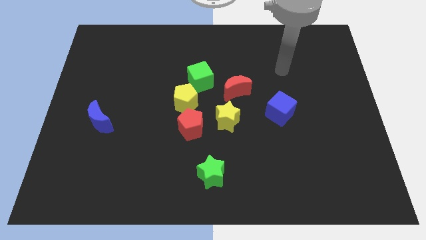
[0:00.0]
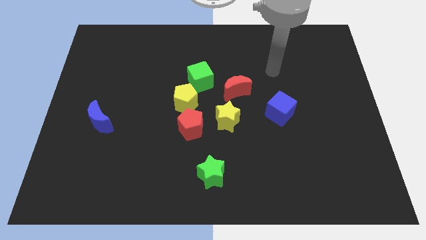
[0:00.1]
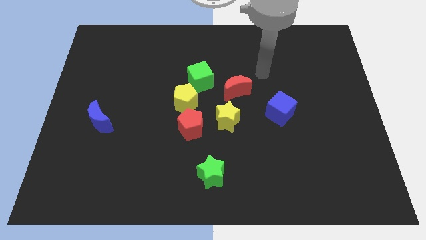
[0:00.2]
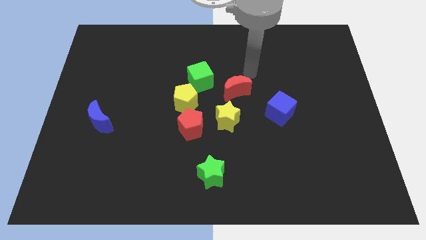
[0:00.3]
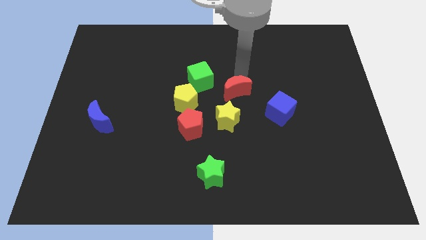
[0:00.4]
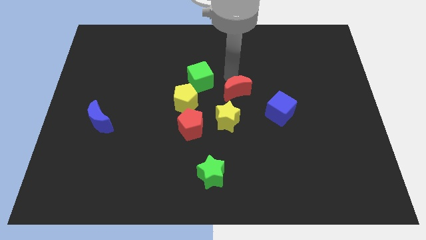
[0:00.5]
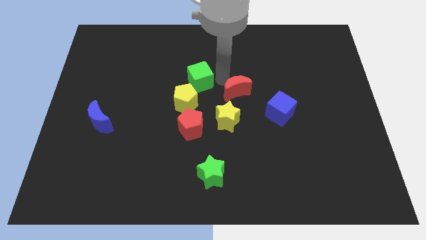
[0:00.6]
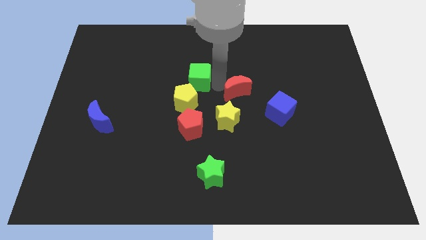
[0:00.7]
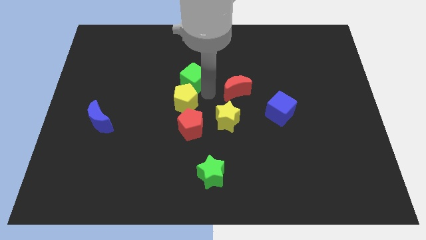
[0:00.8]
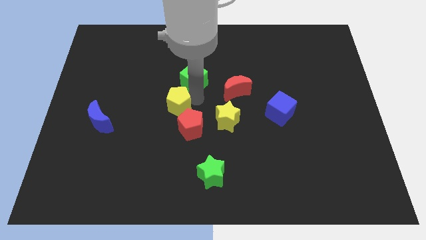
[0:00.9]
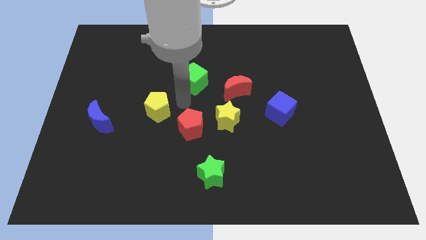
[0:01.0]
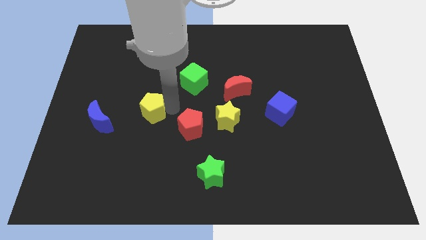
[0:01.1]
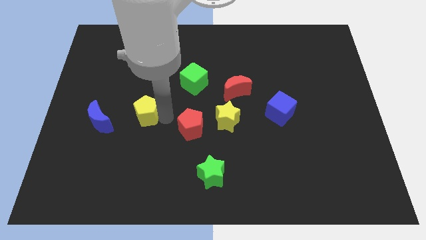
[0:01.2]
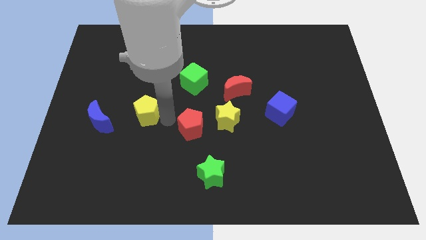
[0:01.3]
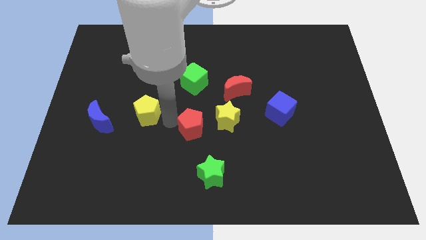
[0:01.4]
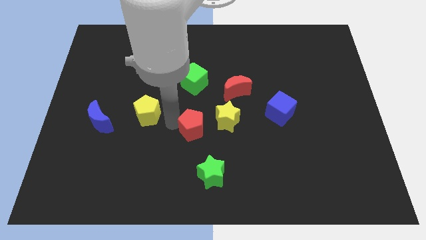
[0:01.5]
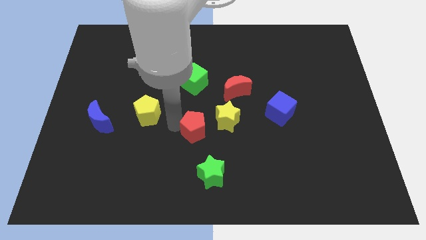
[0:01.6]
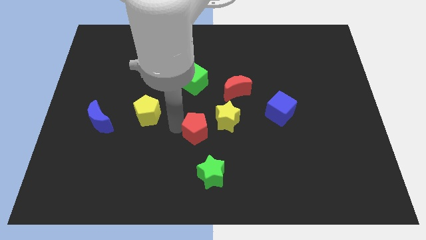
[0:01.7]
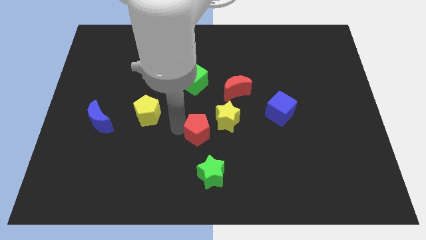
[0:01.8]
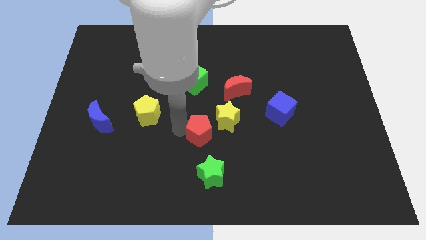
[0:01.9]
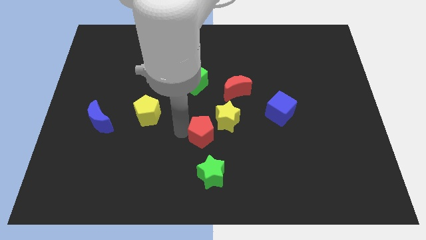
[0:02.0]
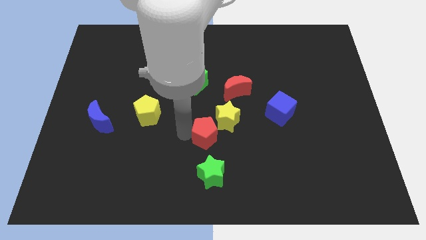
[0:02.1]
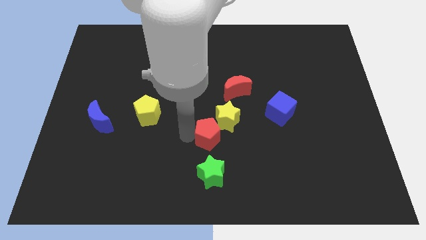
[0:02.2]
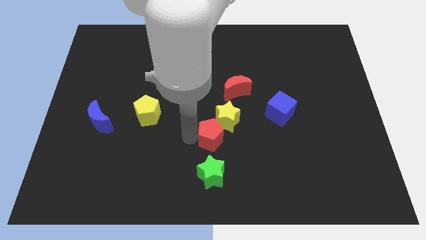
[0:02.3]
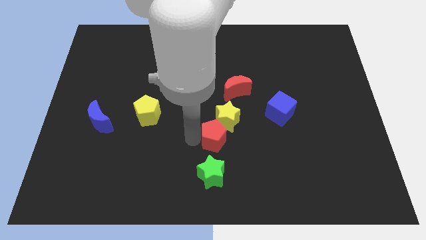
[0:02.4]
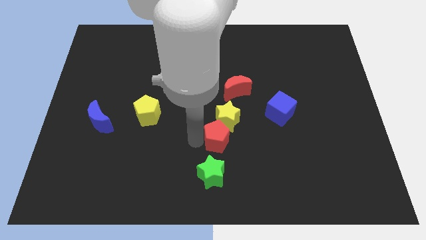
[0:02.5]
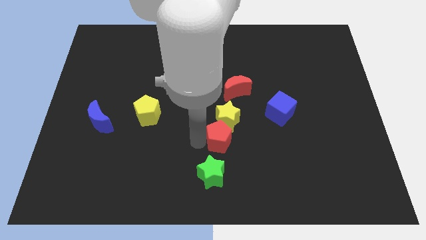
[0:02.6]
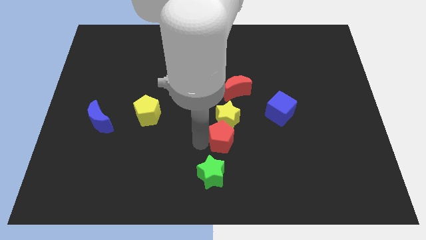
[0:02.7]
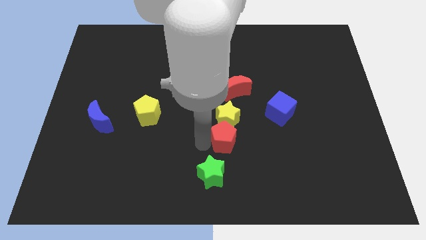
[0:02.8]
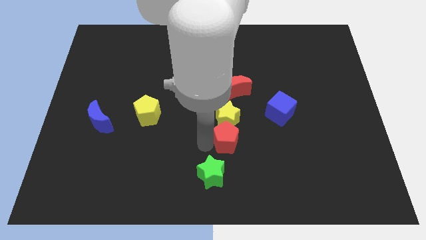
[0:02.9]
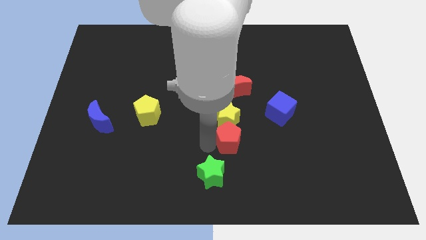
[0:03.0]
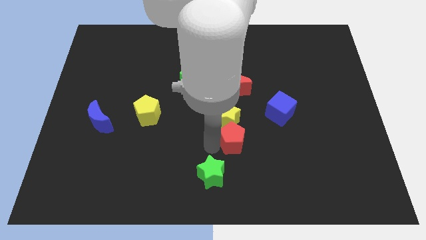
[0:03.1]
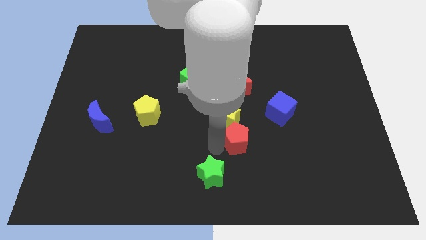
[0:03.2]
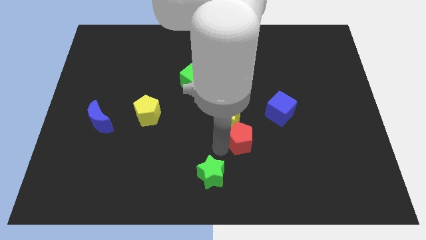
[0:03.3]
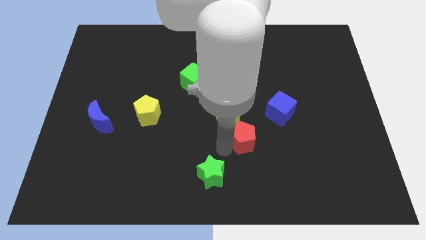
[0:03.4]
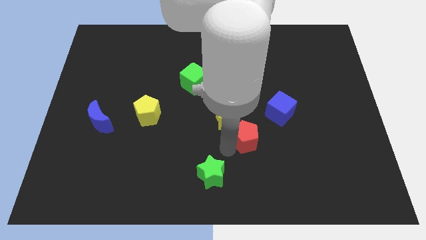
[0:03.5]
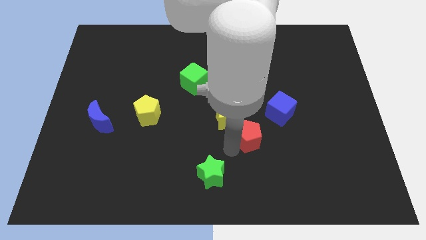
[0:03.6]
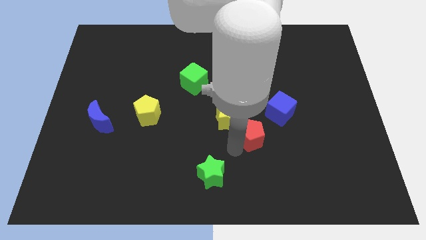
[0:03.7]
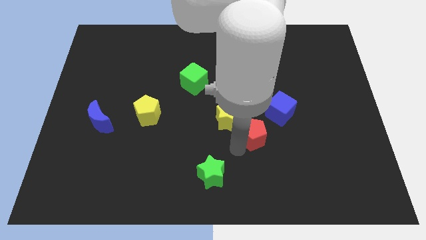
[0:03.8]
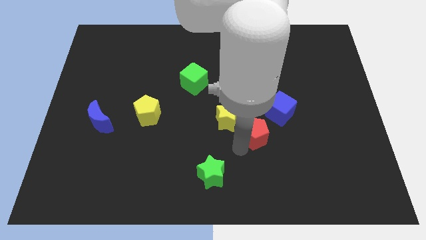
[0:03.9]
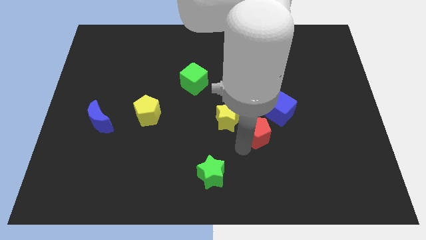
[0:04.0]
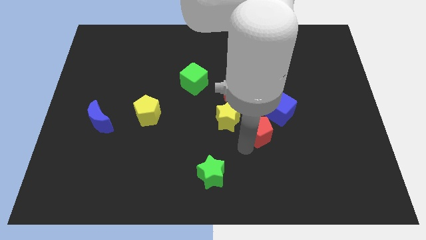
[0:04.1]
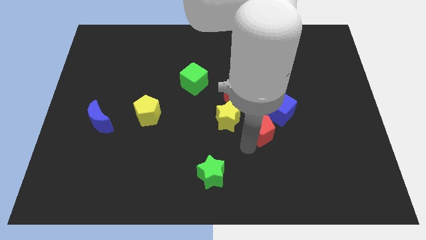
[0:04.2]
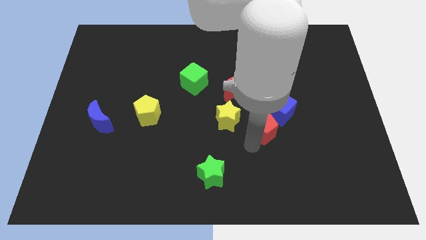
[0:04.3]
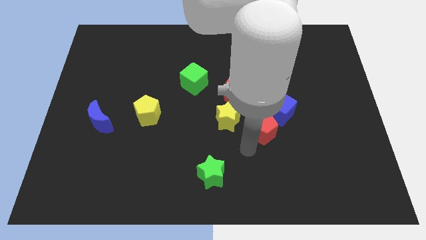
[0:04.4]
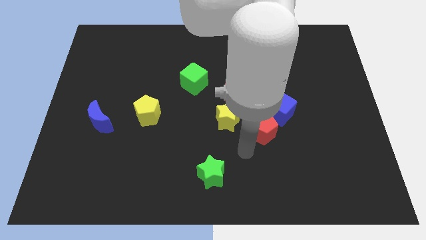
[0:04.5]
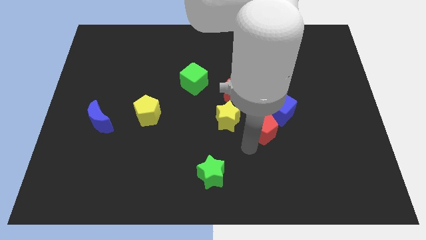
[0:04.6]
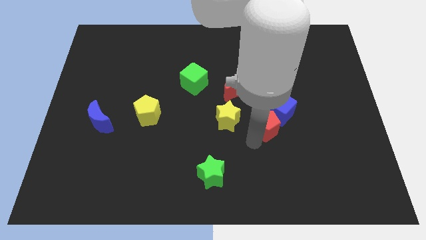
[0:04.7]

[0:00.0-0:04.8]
slide the red pentagon to the blue cube

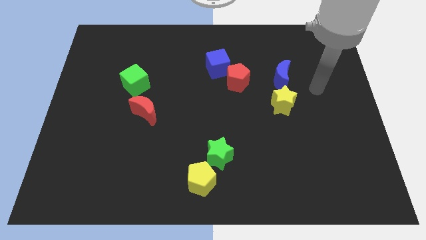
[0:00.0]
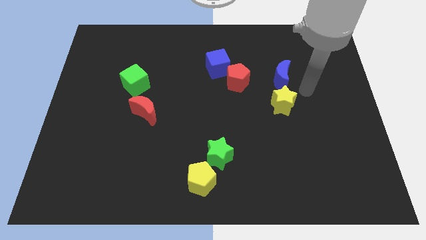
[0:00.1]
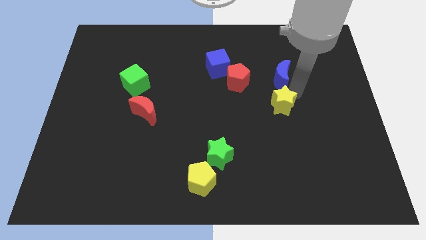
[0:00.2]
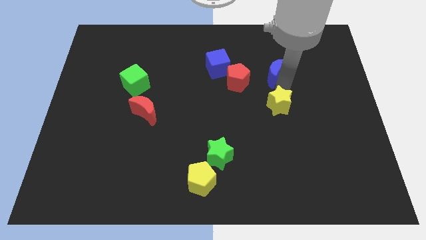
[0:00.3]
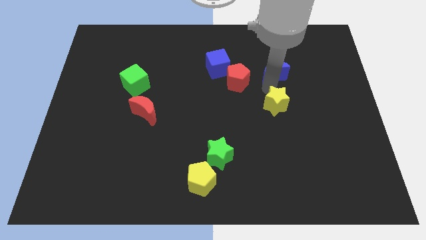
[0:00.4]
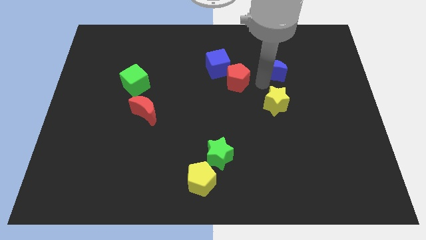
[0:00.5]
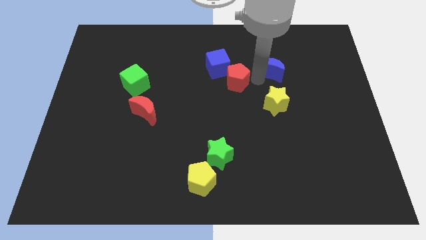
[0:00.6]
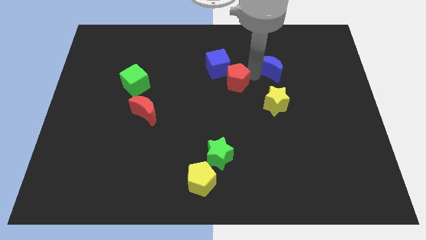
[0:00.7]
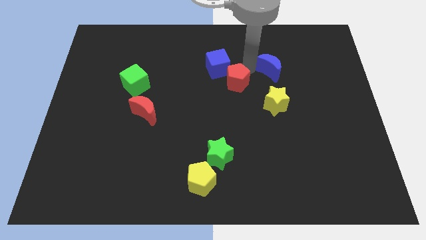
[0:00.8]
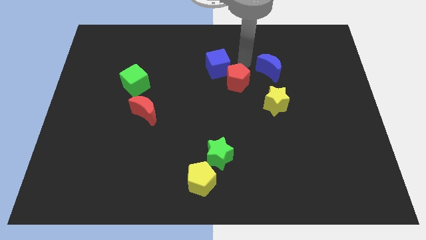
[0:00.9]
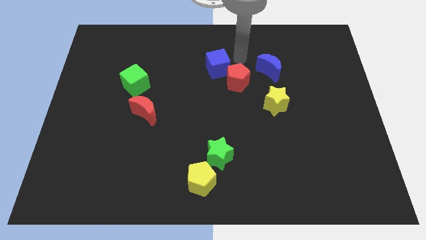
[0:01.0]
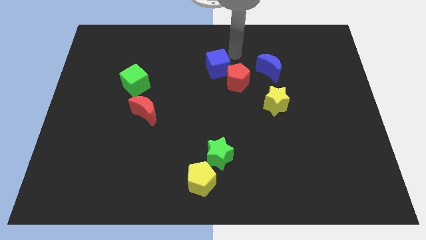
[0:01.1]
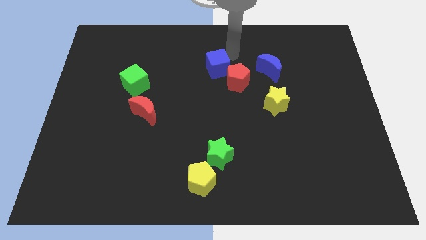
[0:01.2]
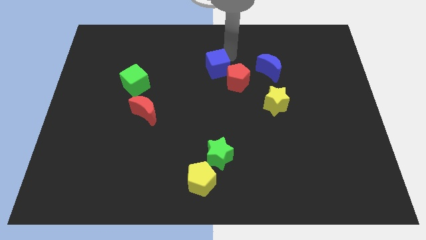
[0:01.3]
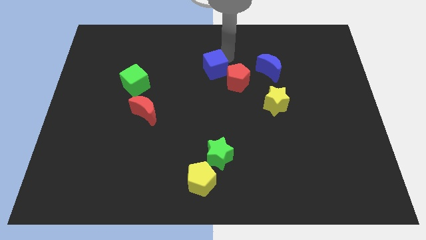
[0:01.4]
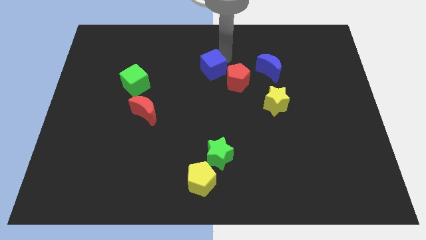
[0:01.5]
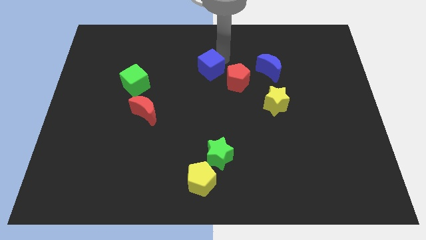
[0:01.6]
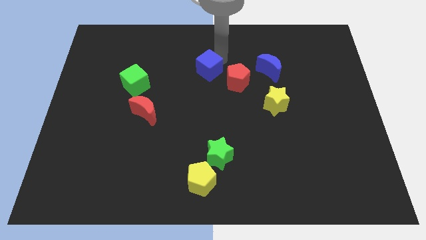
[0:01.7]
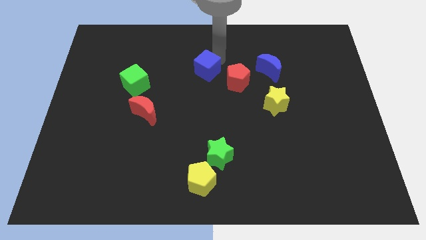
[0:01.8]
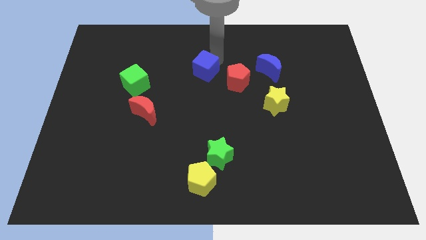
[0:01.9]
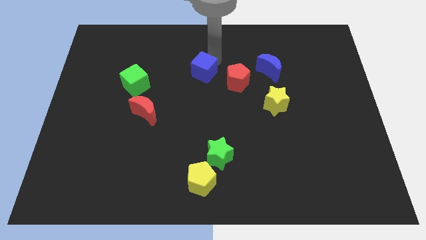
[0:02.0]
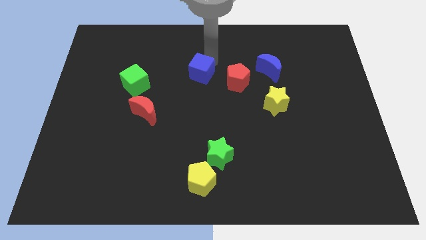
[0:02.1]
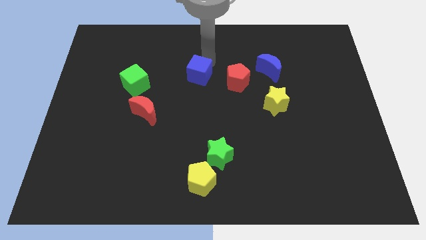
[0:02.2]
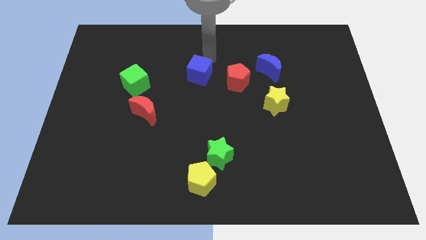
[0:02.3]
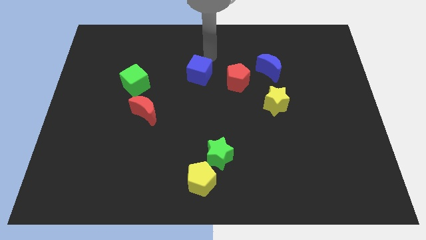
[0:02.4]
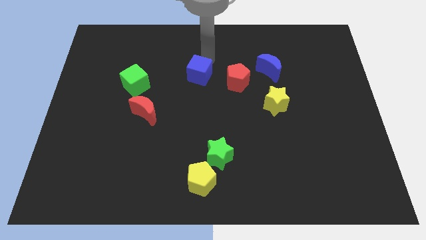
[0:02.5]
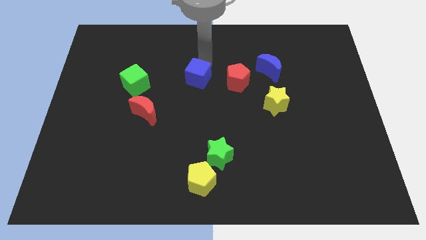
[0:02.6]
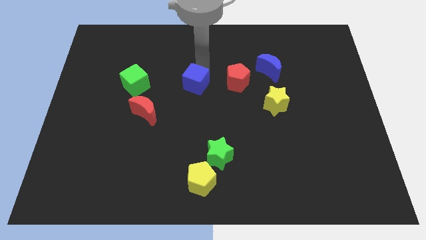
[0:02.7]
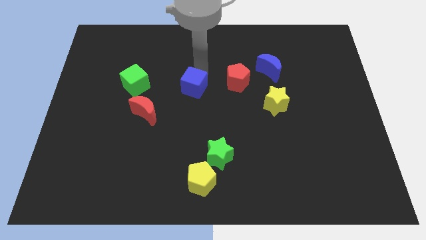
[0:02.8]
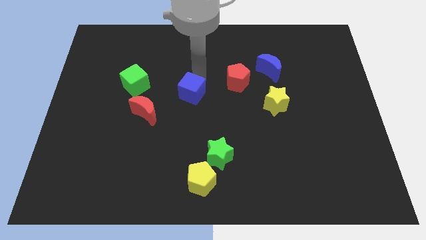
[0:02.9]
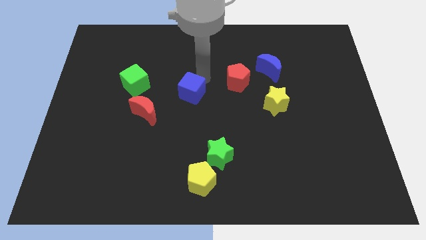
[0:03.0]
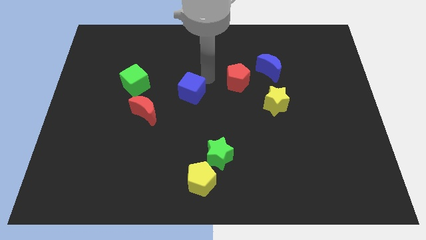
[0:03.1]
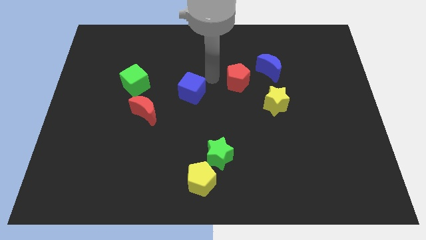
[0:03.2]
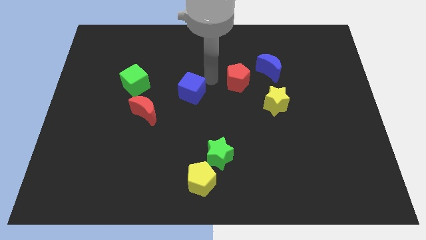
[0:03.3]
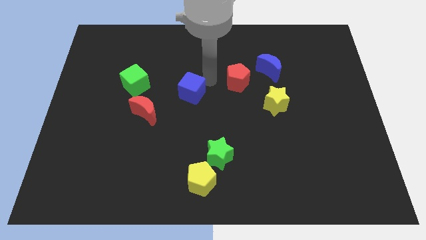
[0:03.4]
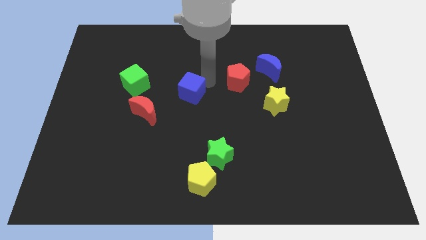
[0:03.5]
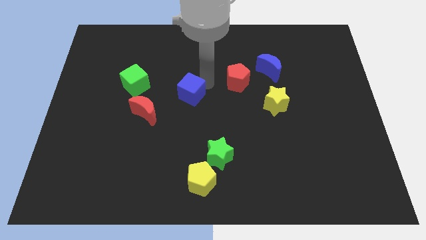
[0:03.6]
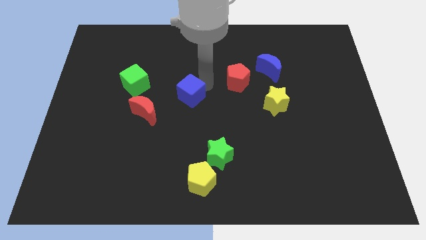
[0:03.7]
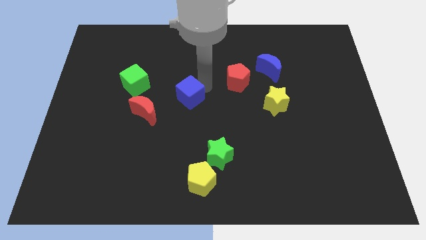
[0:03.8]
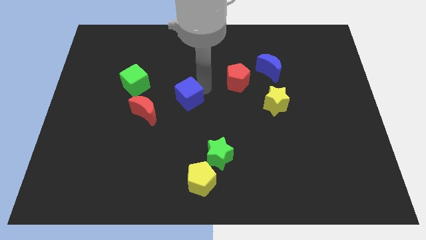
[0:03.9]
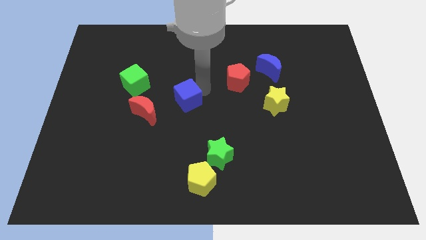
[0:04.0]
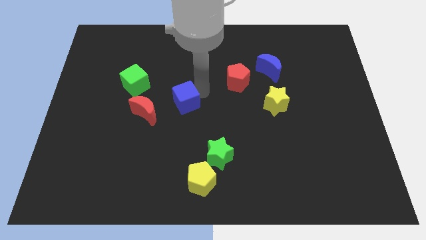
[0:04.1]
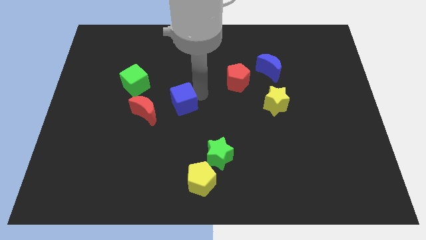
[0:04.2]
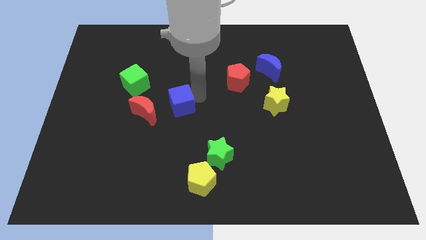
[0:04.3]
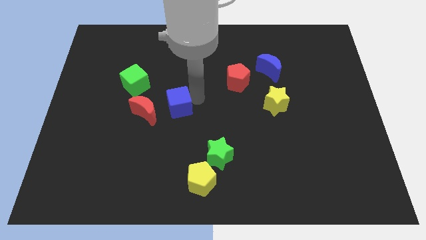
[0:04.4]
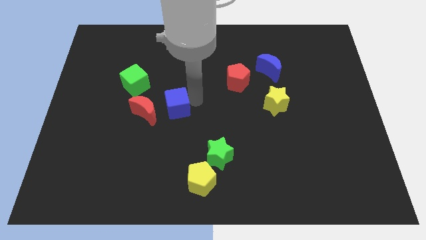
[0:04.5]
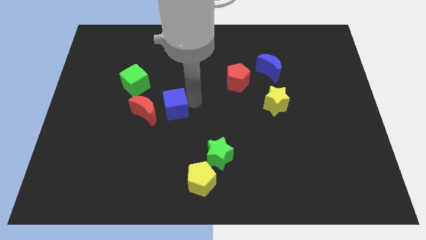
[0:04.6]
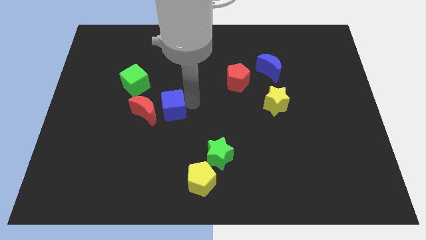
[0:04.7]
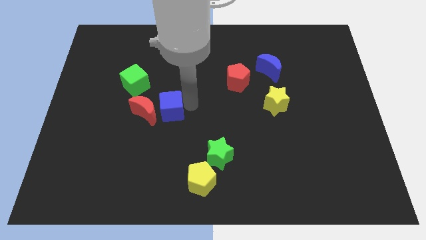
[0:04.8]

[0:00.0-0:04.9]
slide the blue cube next to the red moon
